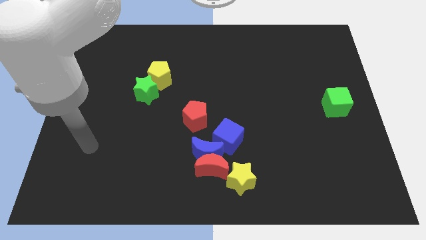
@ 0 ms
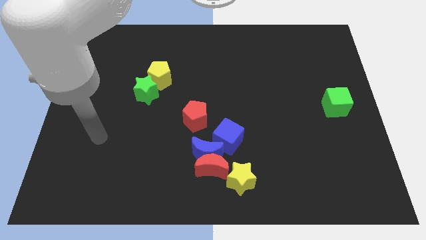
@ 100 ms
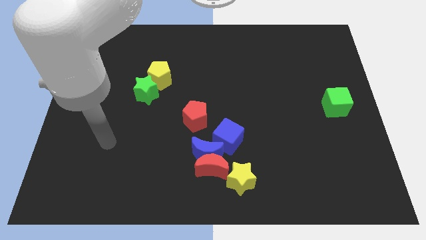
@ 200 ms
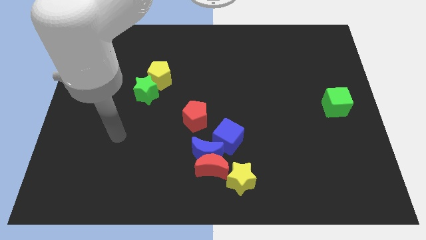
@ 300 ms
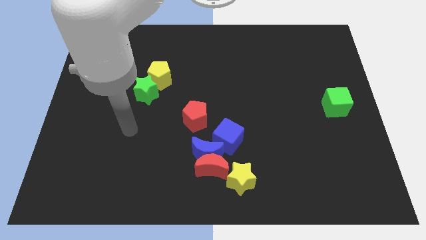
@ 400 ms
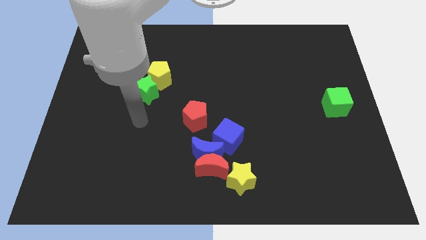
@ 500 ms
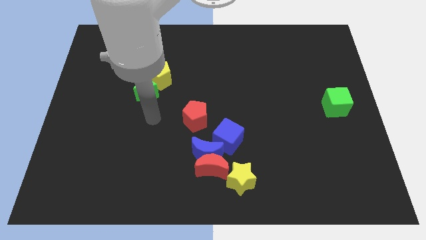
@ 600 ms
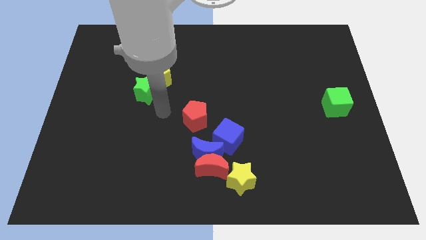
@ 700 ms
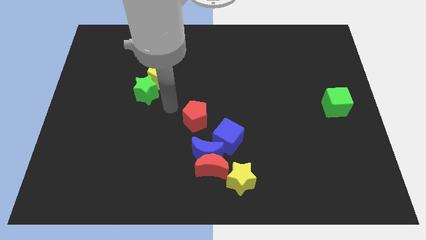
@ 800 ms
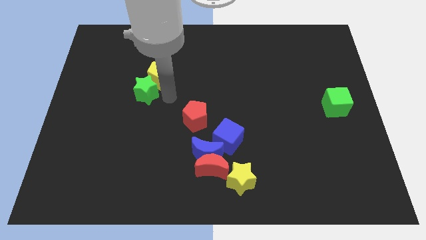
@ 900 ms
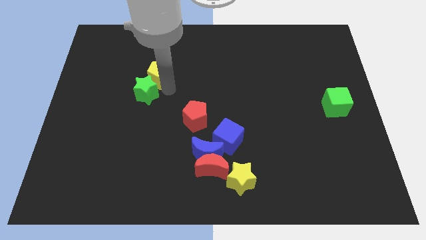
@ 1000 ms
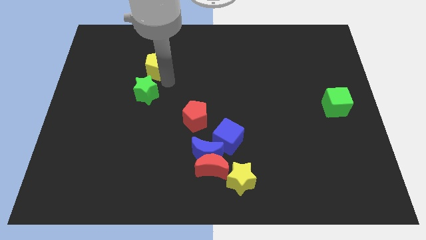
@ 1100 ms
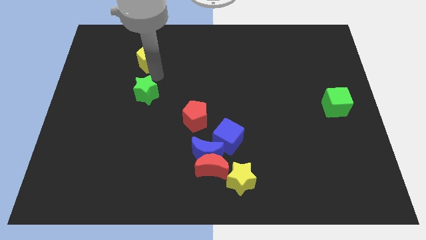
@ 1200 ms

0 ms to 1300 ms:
separate the green star from the yellow pentagon

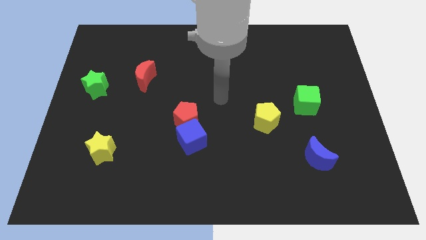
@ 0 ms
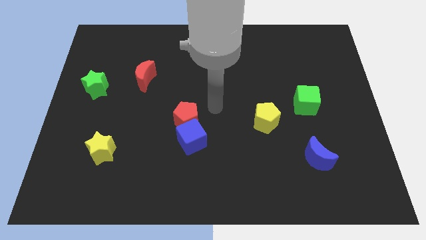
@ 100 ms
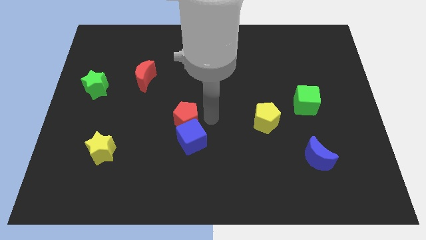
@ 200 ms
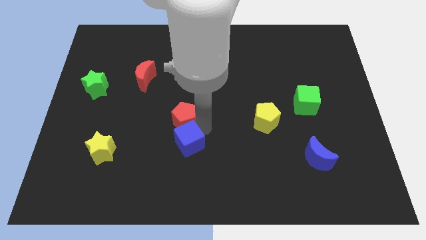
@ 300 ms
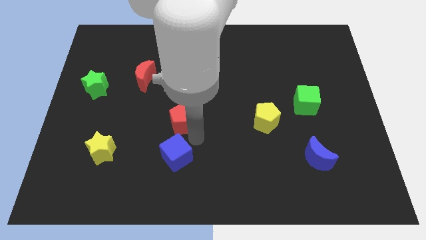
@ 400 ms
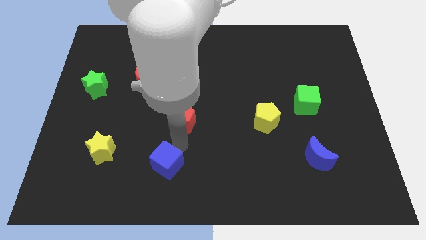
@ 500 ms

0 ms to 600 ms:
pull the red pentagon apart from the blue cube

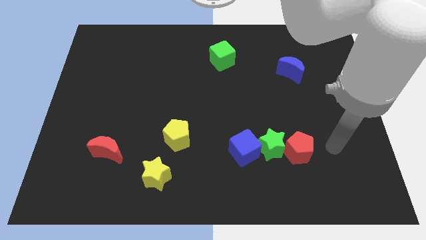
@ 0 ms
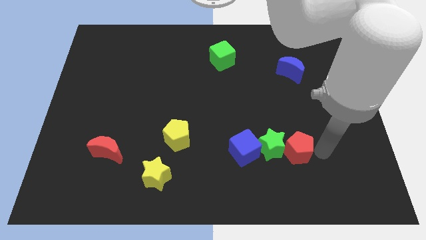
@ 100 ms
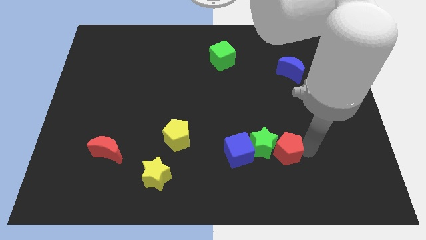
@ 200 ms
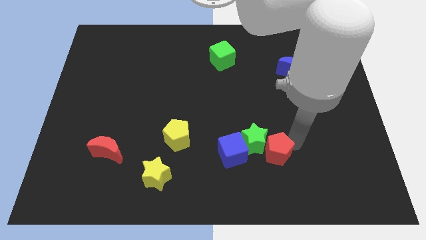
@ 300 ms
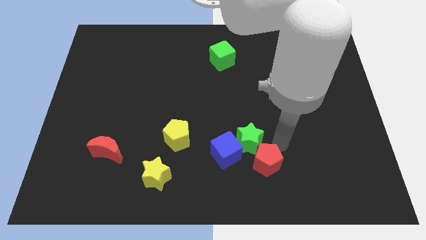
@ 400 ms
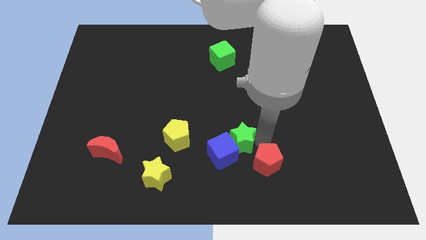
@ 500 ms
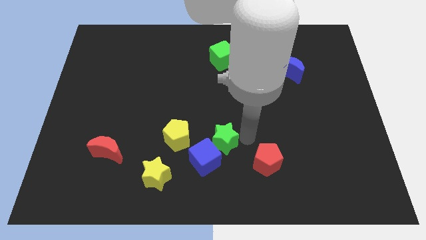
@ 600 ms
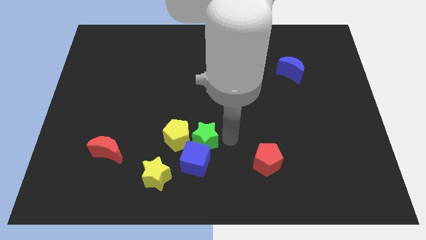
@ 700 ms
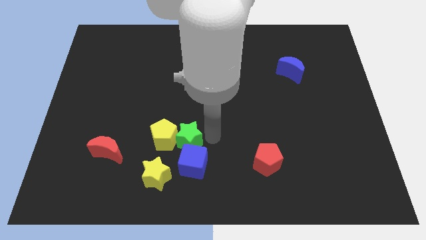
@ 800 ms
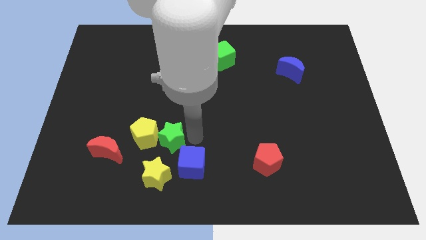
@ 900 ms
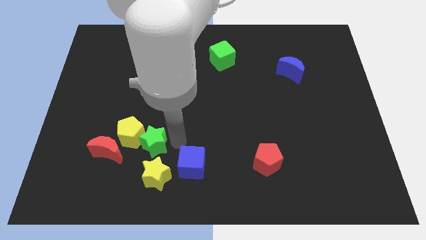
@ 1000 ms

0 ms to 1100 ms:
move the blue cube away from the green star

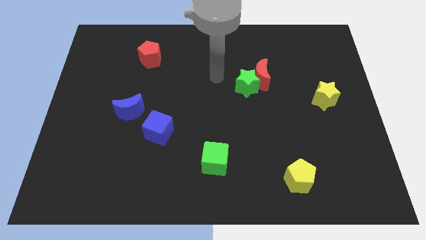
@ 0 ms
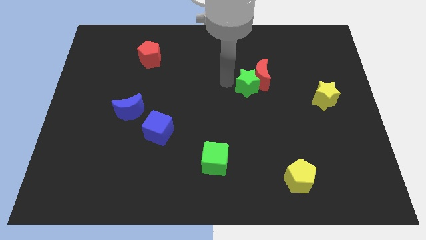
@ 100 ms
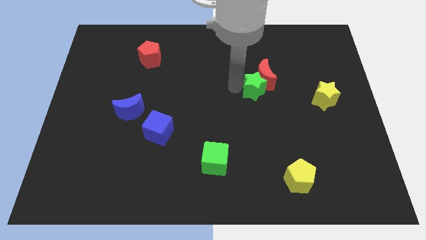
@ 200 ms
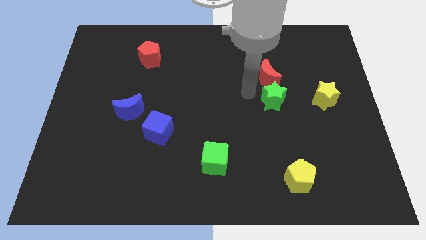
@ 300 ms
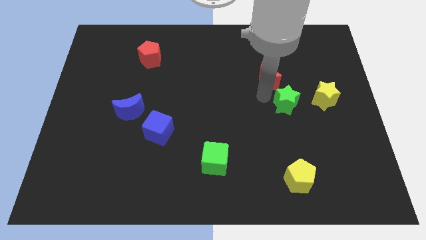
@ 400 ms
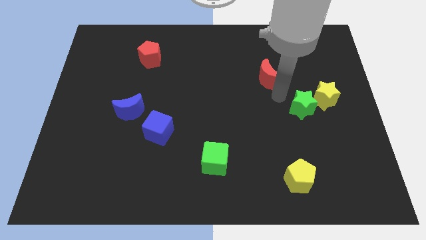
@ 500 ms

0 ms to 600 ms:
pull the red moon apart from the green star

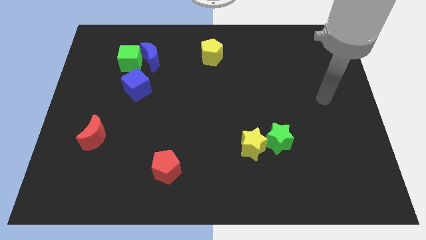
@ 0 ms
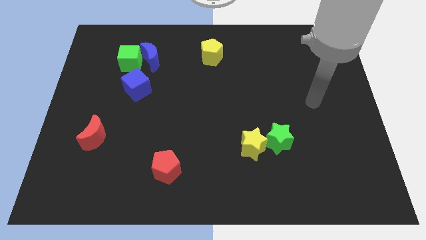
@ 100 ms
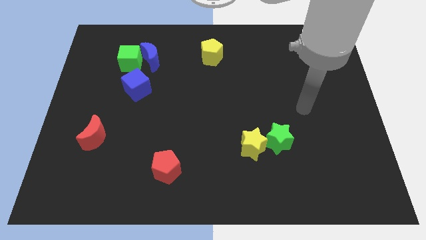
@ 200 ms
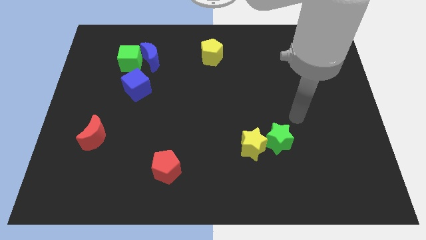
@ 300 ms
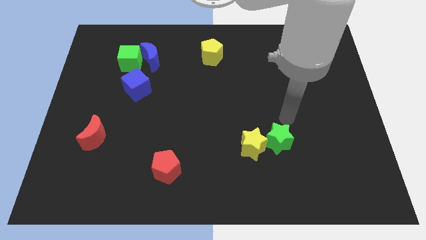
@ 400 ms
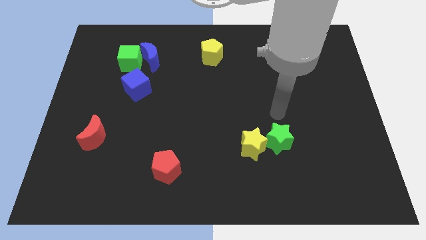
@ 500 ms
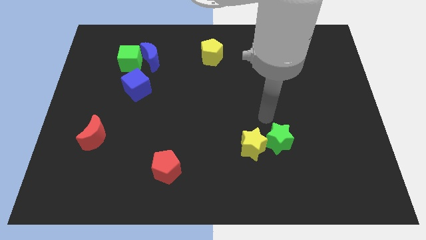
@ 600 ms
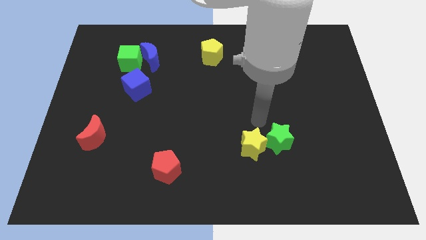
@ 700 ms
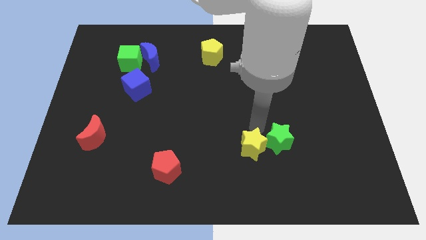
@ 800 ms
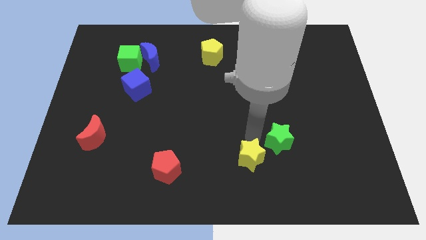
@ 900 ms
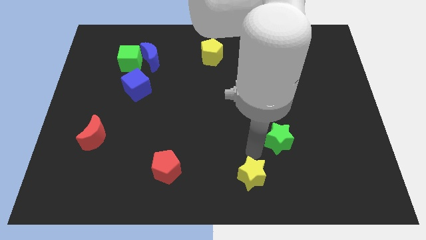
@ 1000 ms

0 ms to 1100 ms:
move the green star away from the yellow star

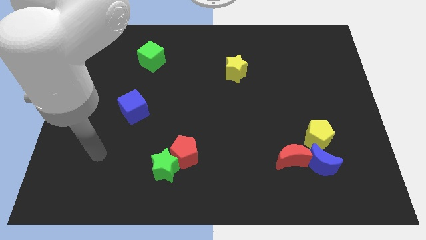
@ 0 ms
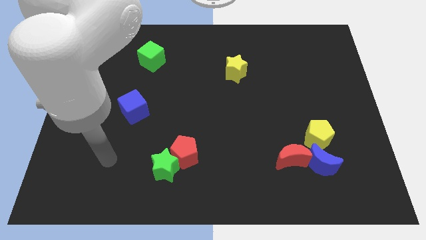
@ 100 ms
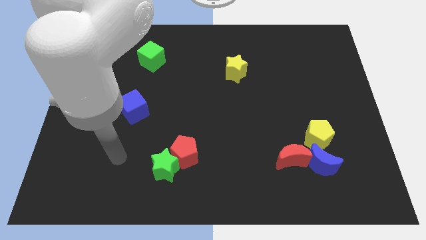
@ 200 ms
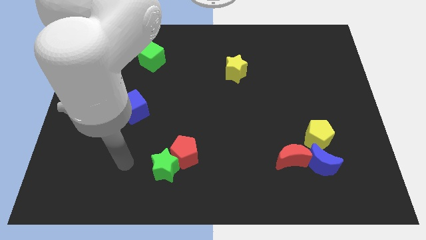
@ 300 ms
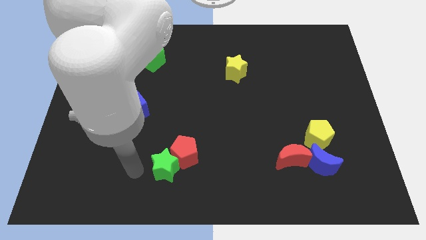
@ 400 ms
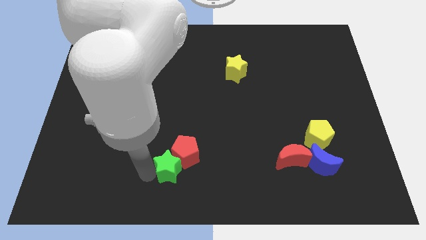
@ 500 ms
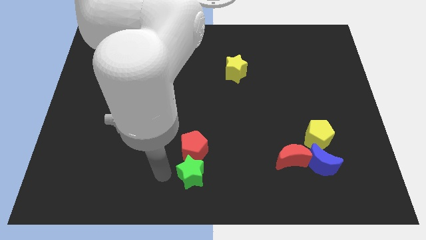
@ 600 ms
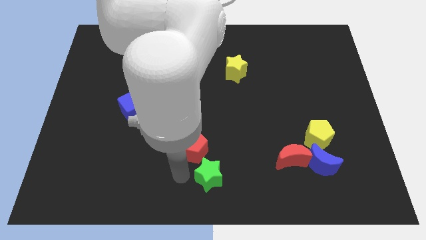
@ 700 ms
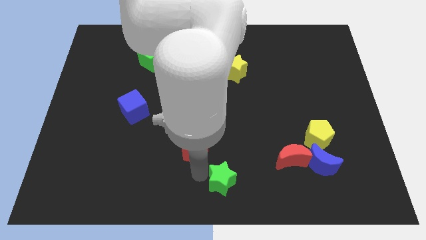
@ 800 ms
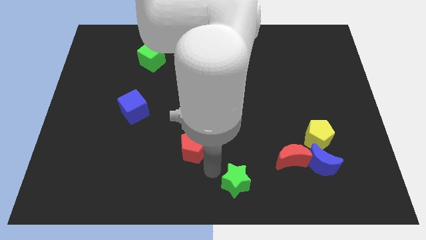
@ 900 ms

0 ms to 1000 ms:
separate the red pentagon from the green star

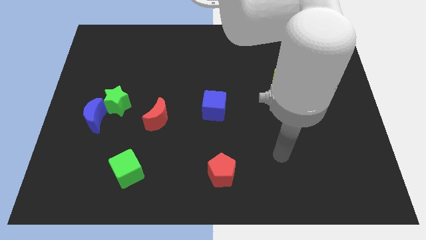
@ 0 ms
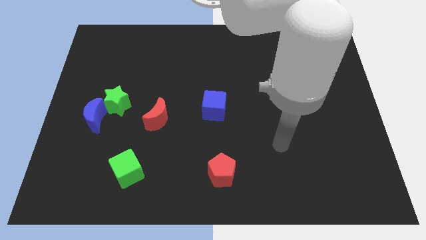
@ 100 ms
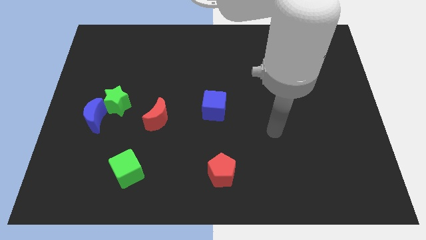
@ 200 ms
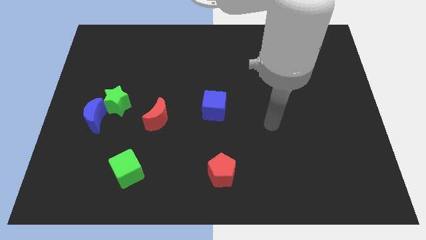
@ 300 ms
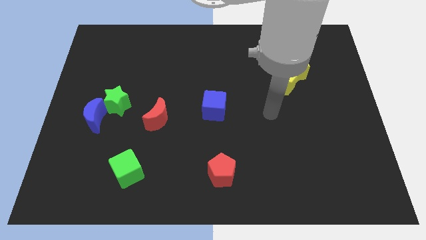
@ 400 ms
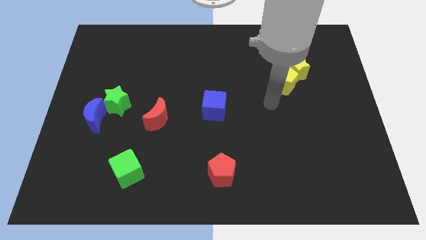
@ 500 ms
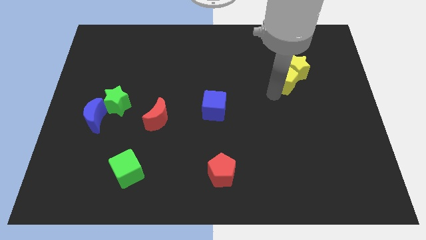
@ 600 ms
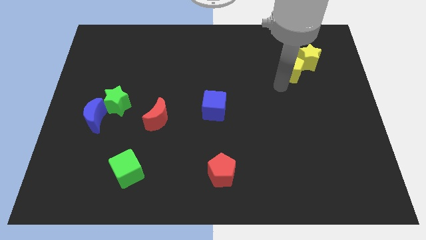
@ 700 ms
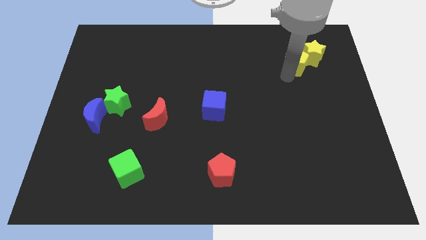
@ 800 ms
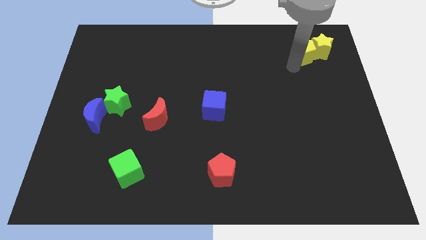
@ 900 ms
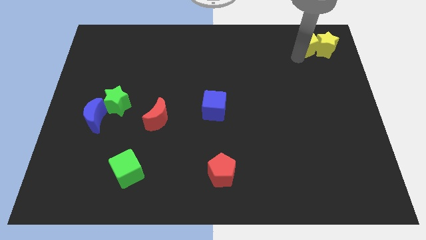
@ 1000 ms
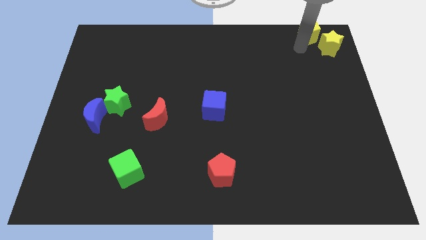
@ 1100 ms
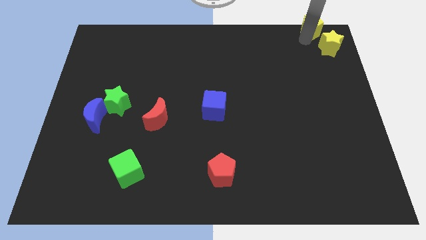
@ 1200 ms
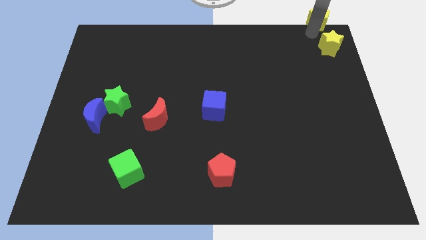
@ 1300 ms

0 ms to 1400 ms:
pull the yellow star apart from the yellow pentagon

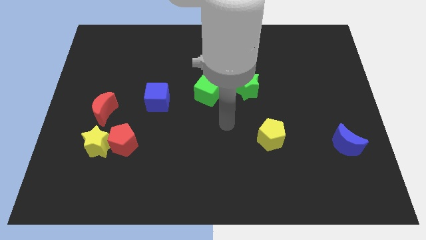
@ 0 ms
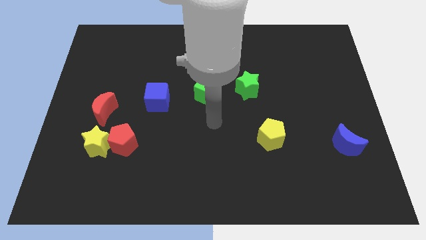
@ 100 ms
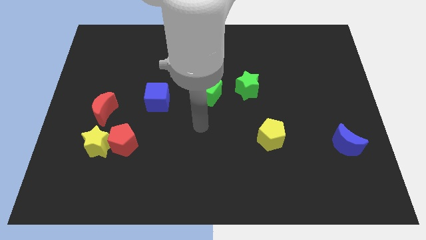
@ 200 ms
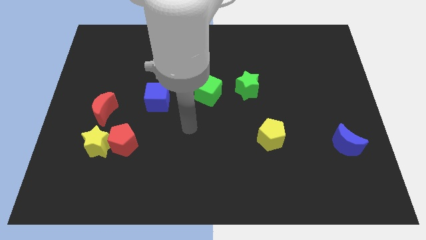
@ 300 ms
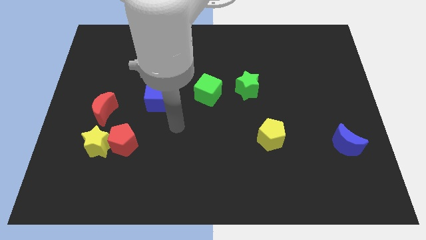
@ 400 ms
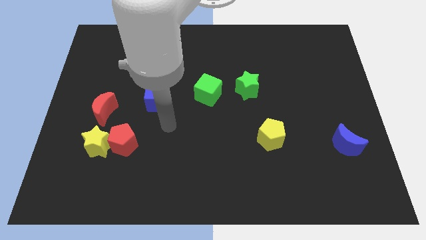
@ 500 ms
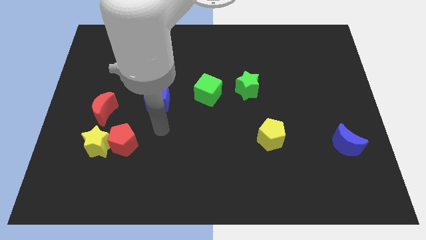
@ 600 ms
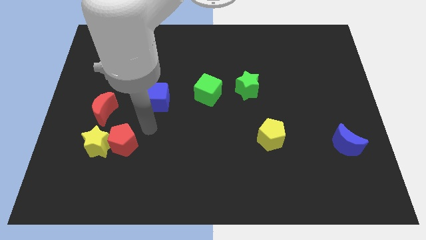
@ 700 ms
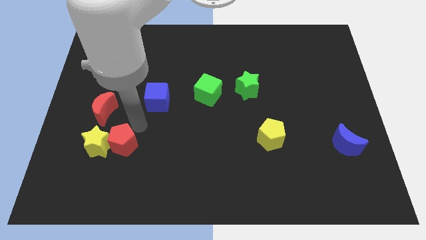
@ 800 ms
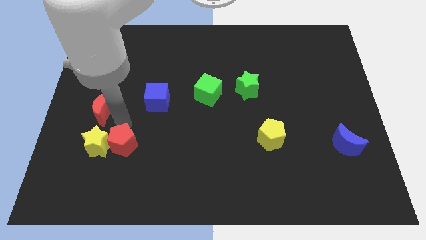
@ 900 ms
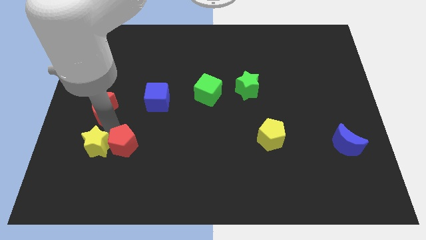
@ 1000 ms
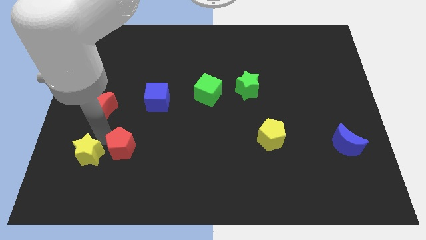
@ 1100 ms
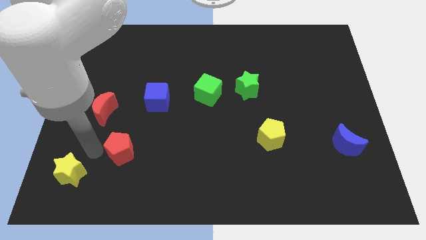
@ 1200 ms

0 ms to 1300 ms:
separate the red pentagon from the yellow star

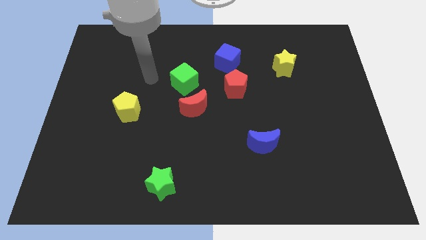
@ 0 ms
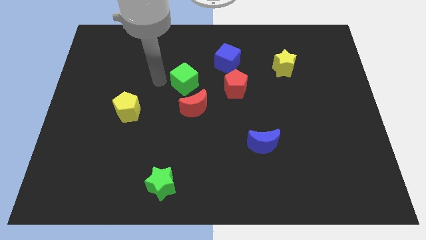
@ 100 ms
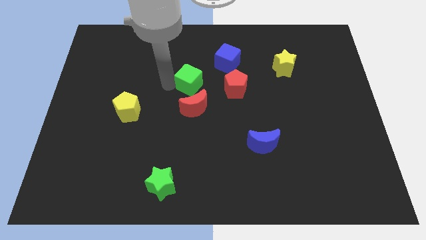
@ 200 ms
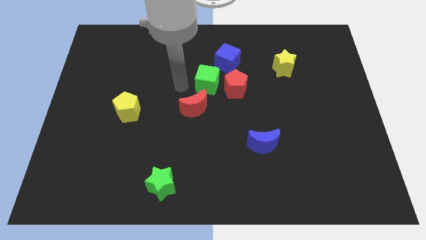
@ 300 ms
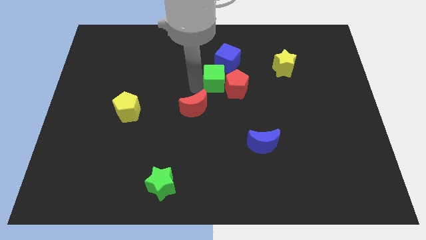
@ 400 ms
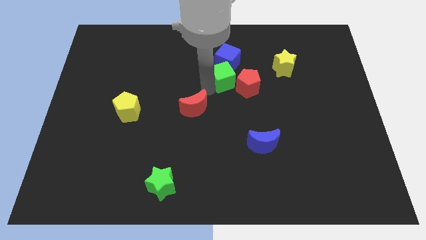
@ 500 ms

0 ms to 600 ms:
separate the red moon from the green cube

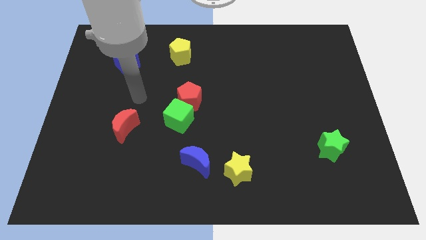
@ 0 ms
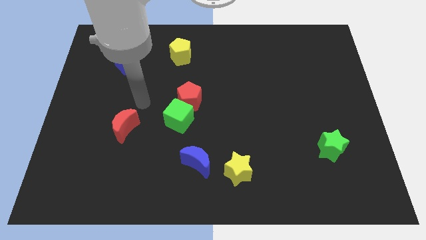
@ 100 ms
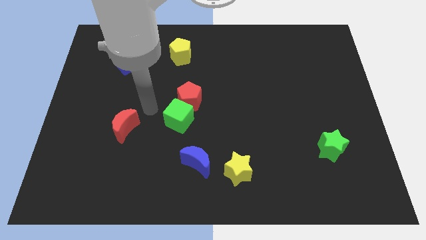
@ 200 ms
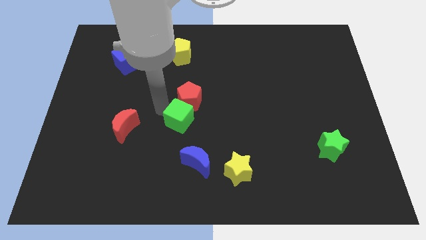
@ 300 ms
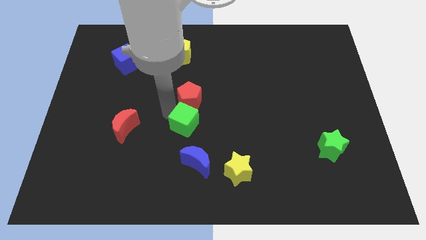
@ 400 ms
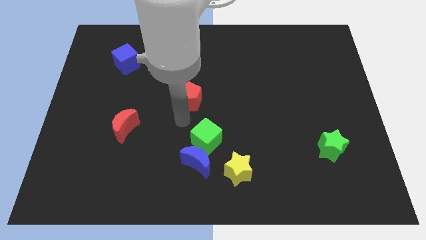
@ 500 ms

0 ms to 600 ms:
move the red pentagon away from the green cube
